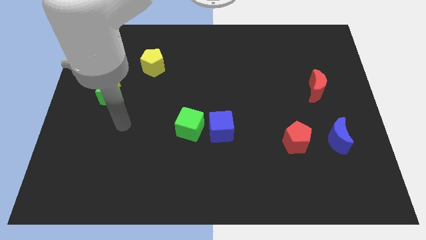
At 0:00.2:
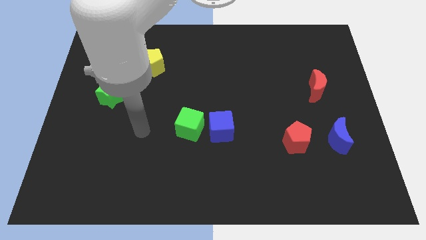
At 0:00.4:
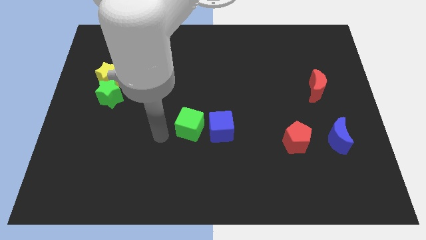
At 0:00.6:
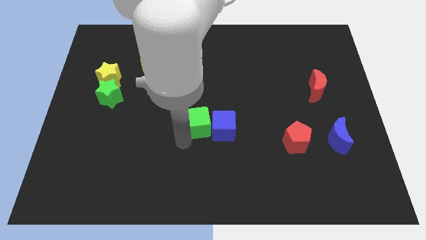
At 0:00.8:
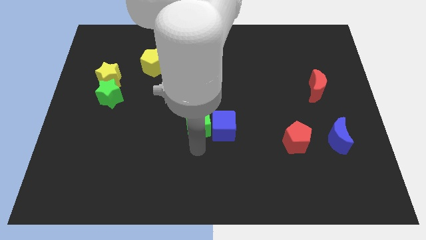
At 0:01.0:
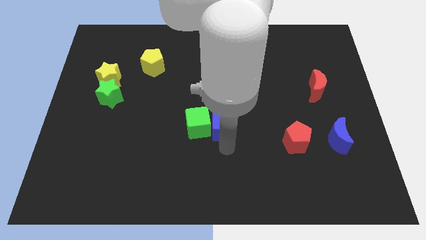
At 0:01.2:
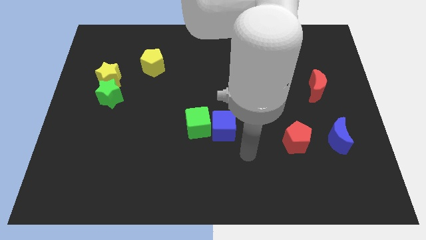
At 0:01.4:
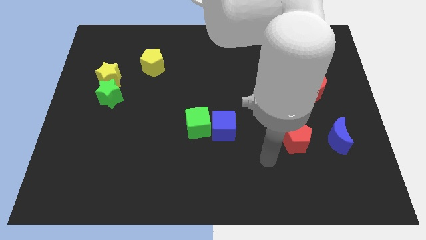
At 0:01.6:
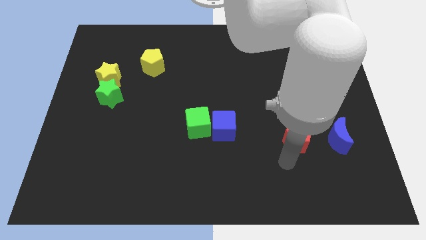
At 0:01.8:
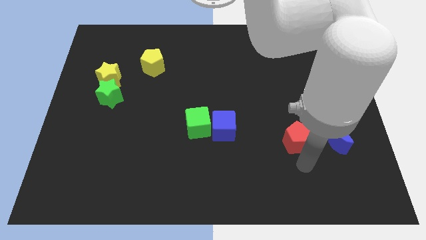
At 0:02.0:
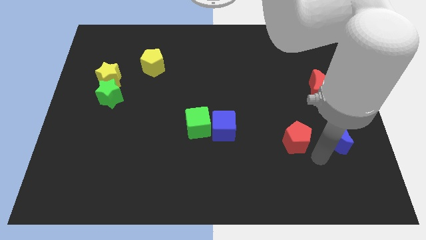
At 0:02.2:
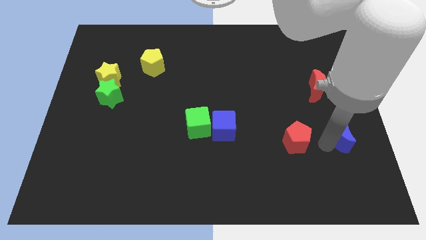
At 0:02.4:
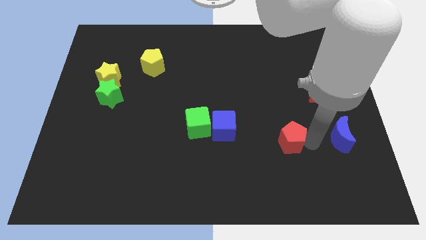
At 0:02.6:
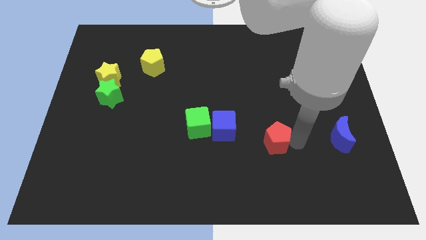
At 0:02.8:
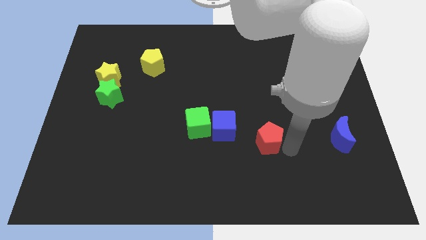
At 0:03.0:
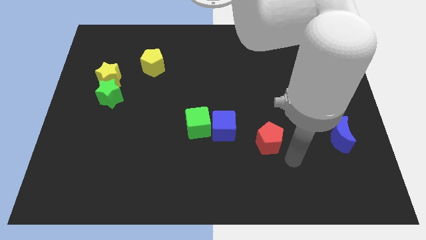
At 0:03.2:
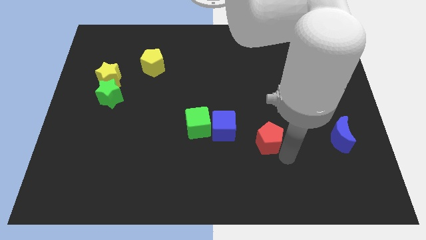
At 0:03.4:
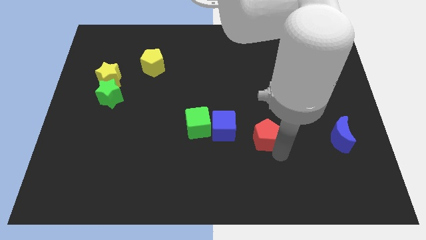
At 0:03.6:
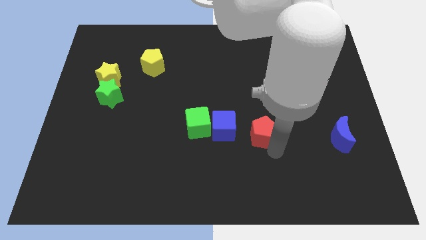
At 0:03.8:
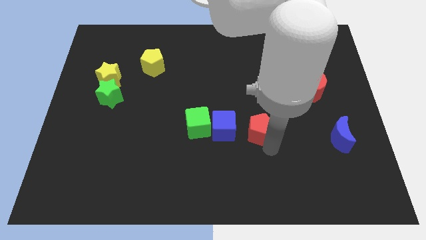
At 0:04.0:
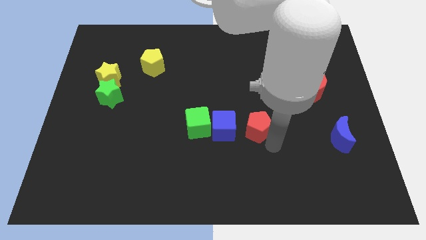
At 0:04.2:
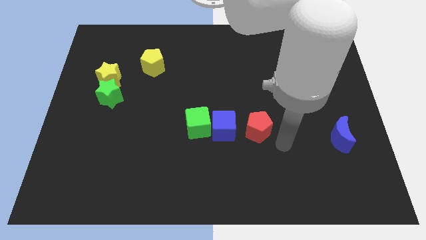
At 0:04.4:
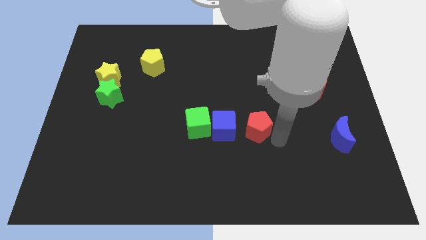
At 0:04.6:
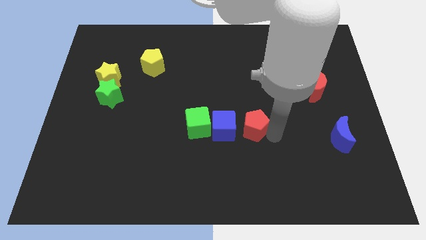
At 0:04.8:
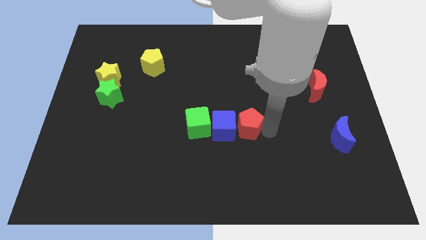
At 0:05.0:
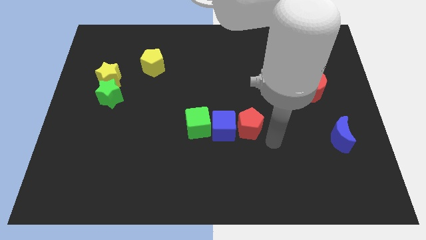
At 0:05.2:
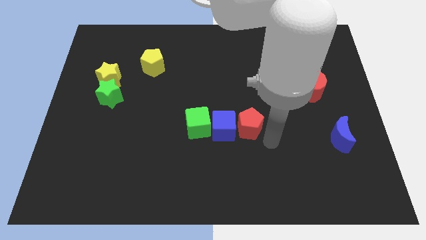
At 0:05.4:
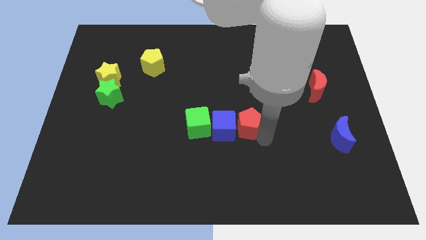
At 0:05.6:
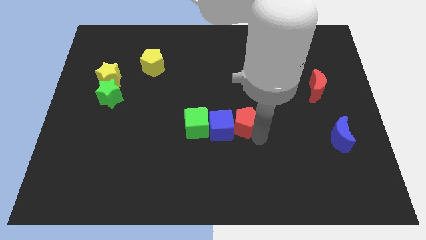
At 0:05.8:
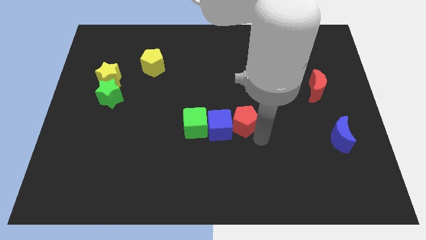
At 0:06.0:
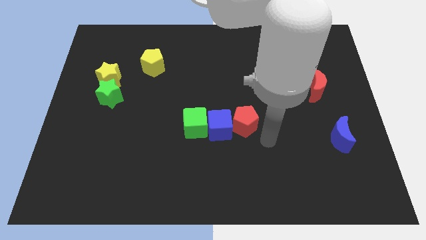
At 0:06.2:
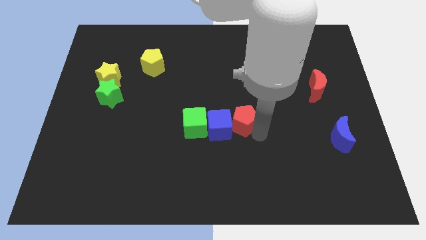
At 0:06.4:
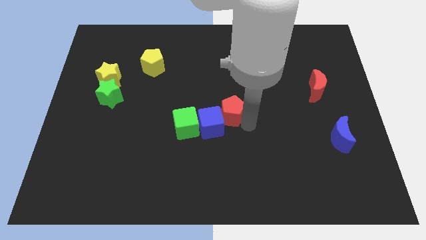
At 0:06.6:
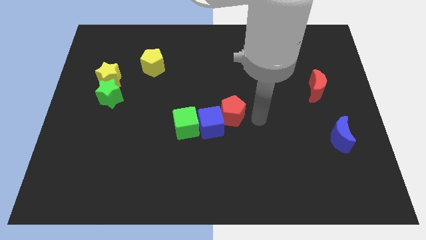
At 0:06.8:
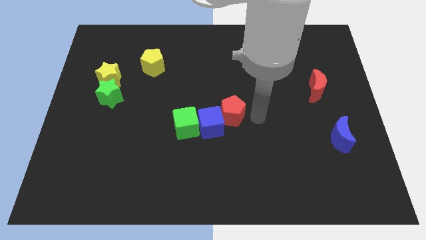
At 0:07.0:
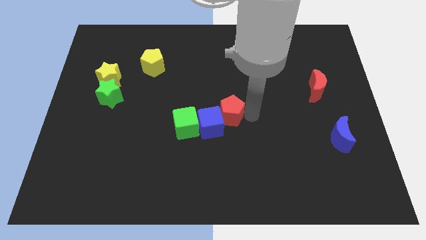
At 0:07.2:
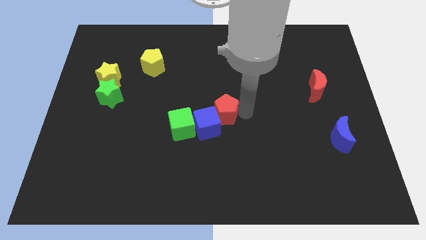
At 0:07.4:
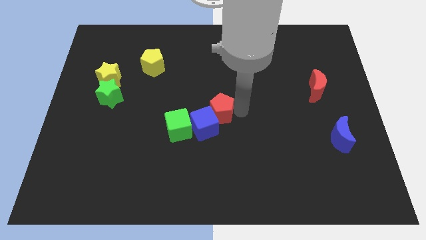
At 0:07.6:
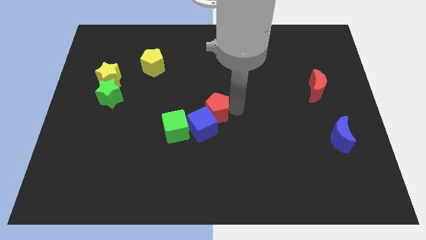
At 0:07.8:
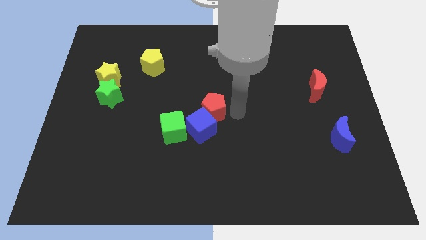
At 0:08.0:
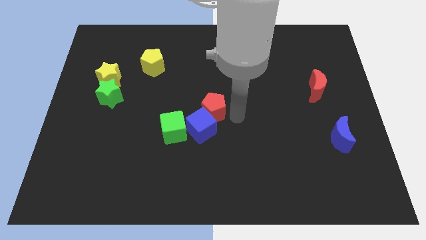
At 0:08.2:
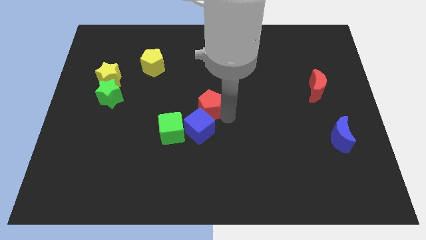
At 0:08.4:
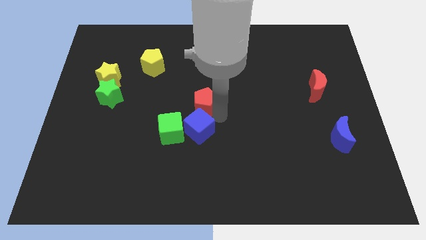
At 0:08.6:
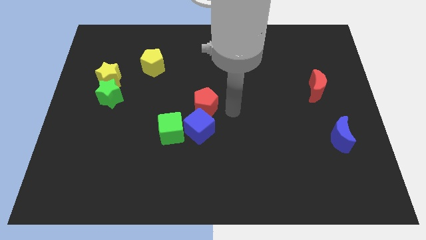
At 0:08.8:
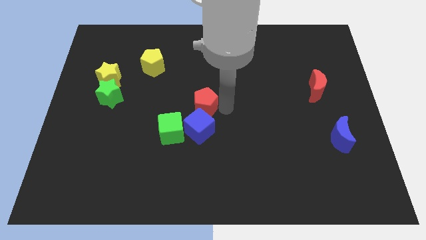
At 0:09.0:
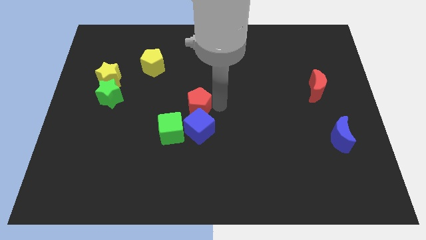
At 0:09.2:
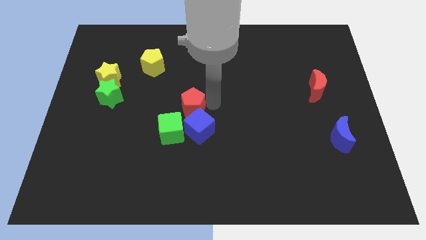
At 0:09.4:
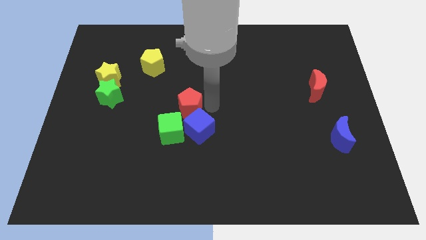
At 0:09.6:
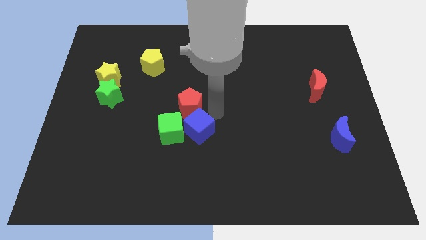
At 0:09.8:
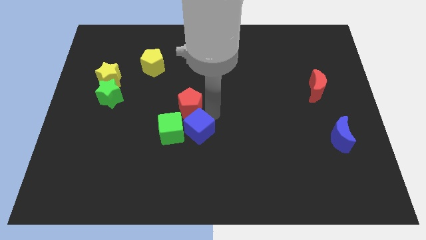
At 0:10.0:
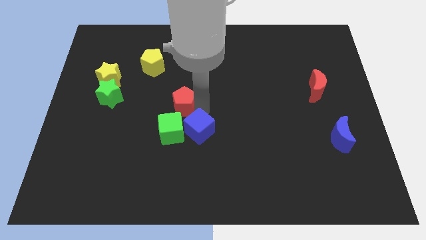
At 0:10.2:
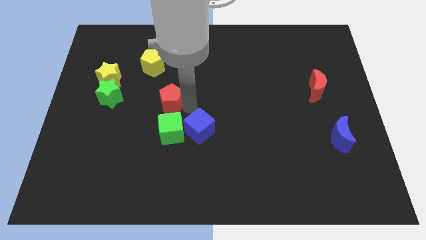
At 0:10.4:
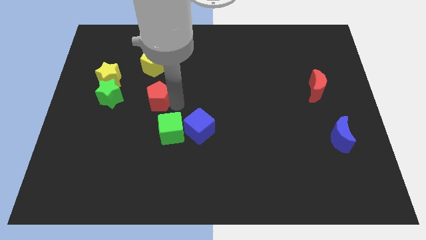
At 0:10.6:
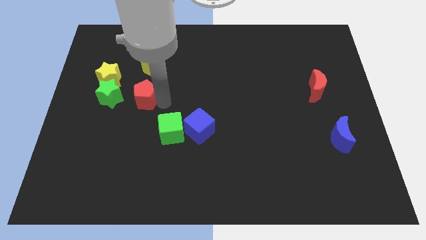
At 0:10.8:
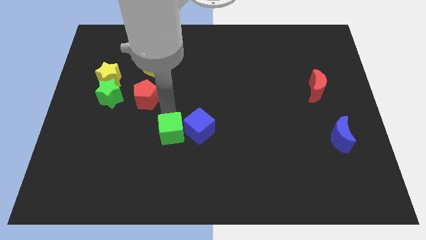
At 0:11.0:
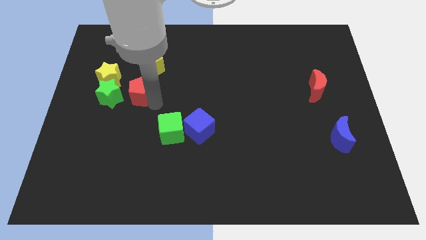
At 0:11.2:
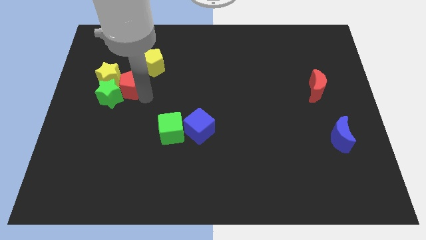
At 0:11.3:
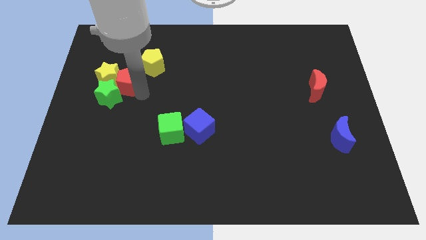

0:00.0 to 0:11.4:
put the red pentagon to the yellow star
